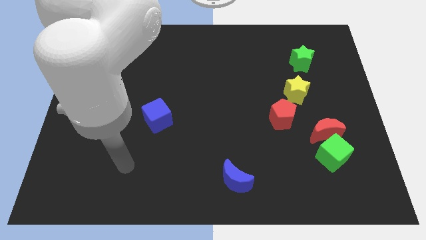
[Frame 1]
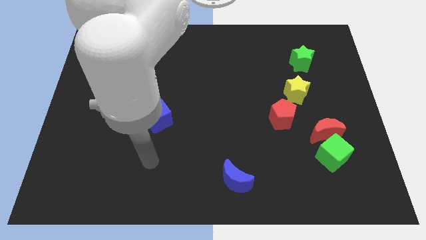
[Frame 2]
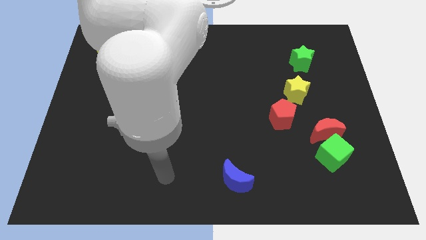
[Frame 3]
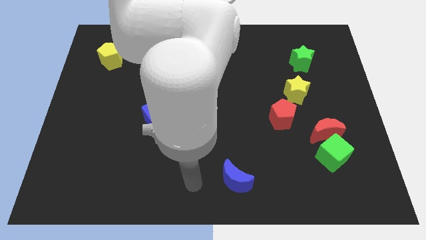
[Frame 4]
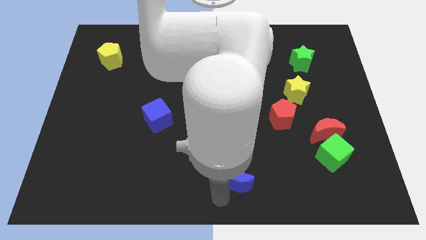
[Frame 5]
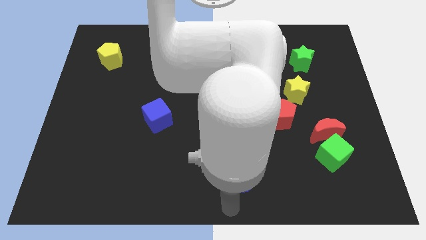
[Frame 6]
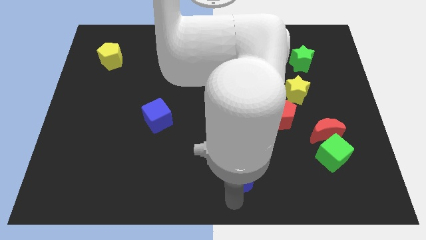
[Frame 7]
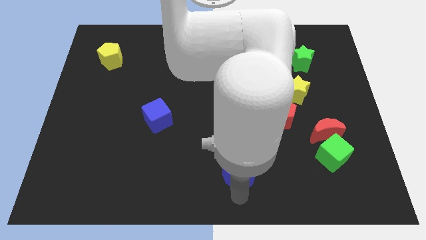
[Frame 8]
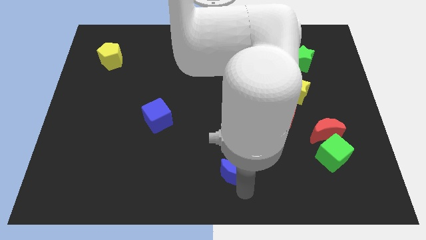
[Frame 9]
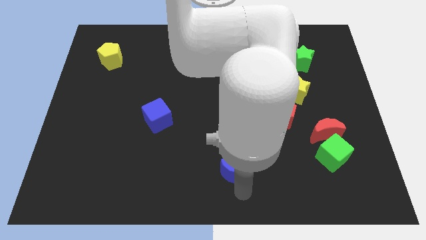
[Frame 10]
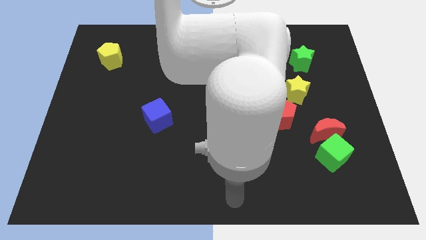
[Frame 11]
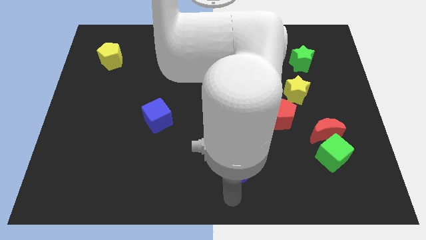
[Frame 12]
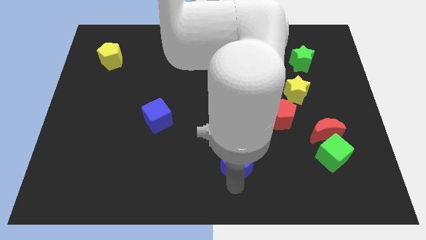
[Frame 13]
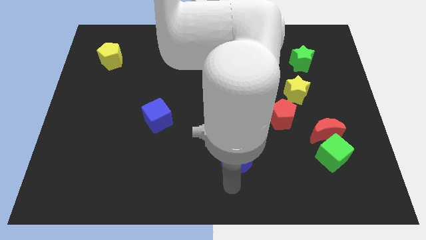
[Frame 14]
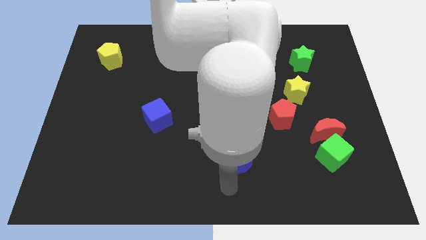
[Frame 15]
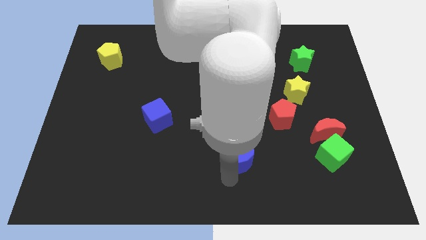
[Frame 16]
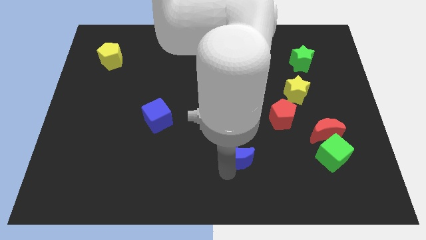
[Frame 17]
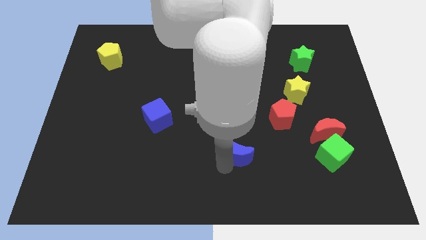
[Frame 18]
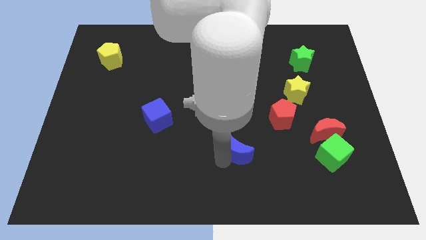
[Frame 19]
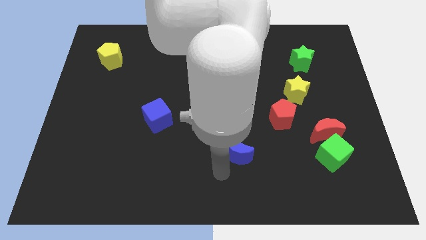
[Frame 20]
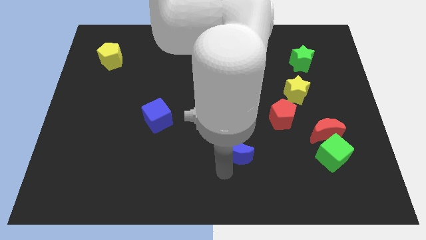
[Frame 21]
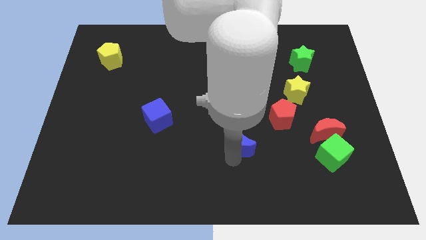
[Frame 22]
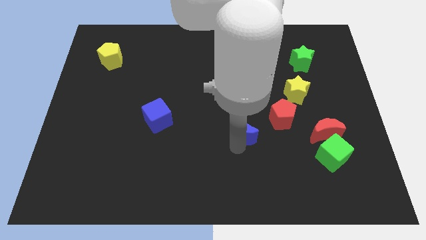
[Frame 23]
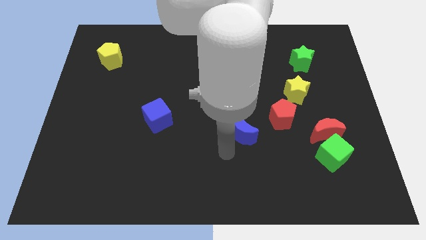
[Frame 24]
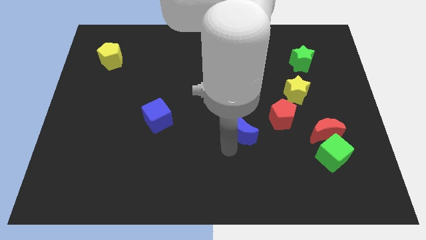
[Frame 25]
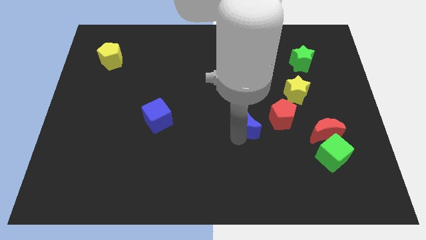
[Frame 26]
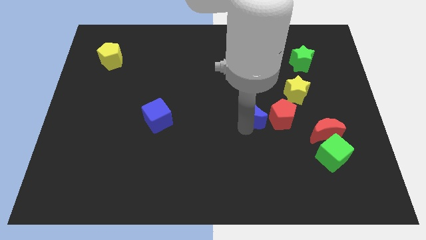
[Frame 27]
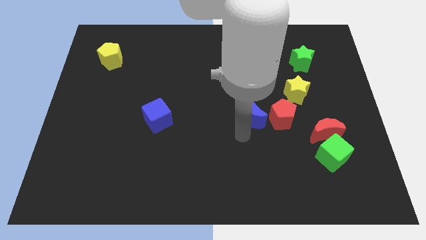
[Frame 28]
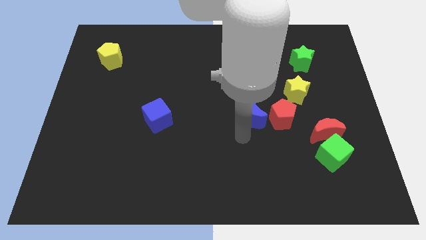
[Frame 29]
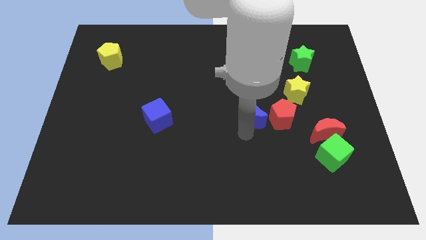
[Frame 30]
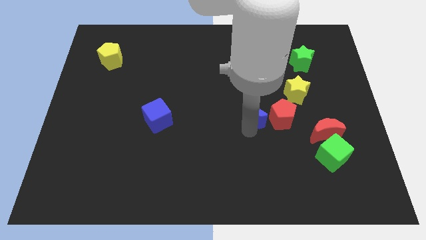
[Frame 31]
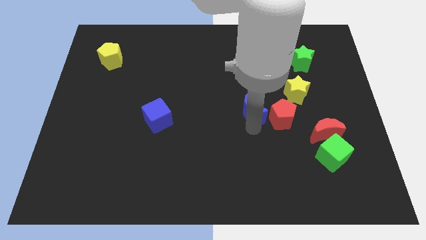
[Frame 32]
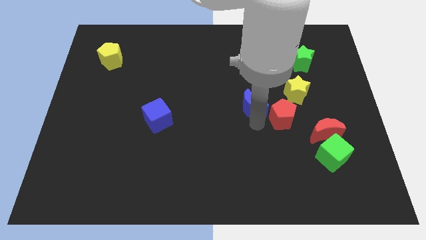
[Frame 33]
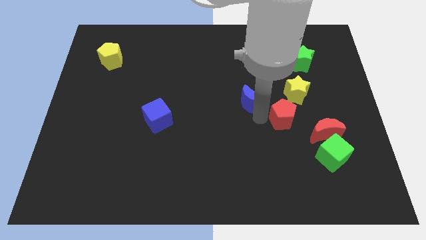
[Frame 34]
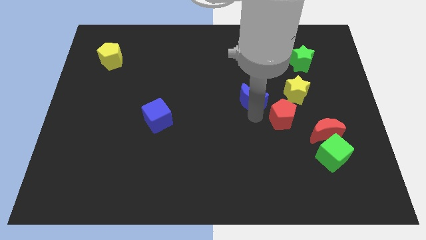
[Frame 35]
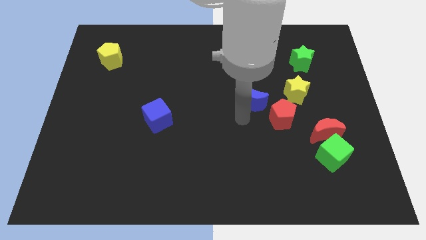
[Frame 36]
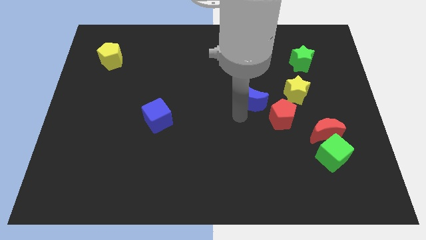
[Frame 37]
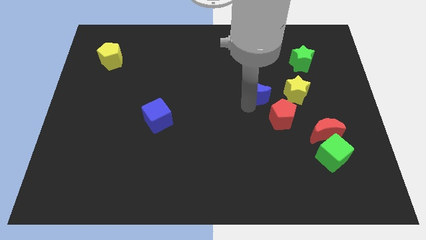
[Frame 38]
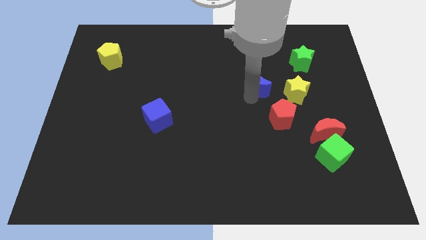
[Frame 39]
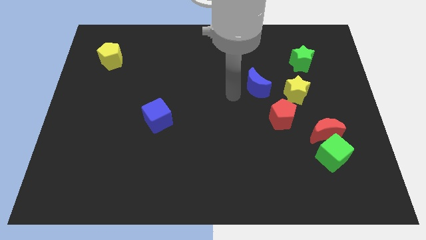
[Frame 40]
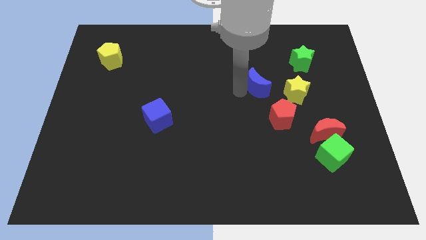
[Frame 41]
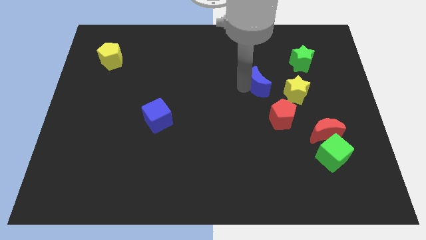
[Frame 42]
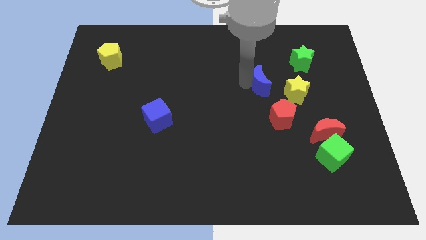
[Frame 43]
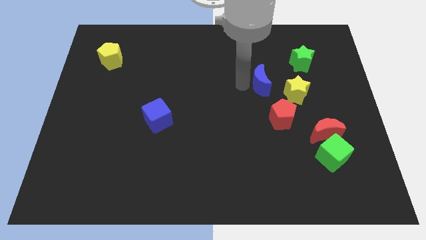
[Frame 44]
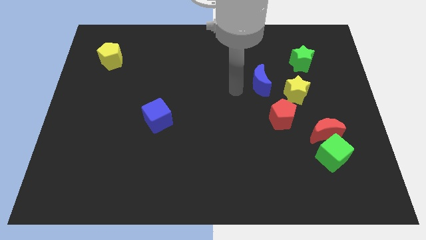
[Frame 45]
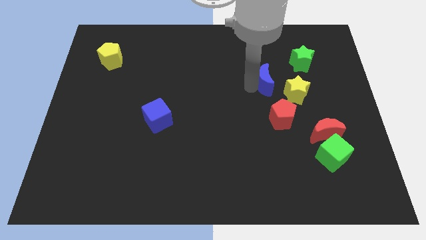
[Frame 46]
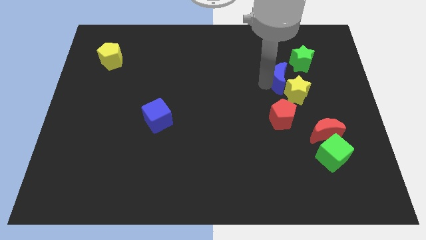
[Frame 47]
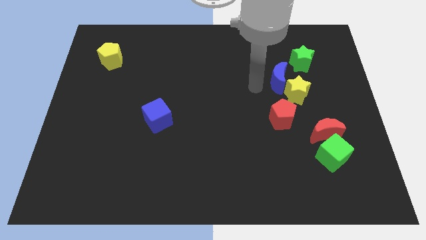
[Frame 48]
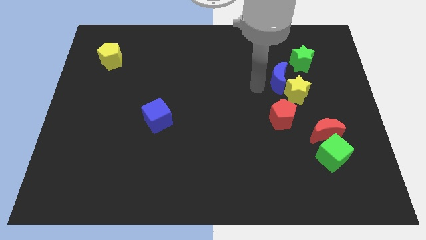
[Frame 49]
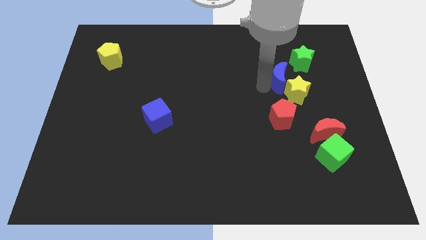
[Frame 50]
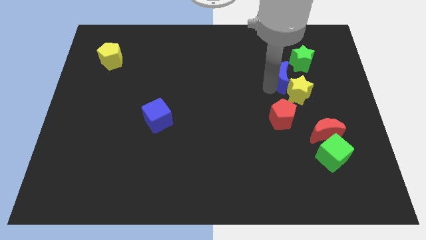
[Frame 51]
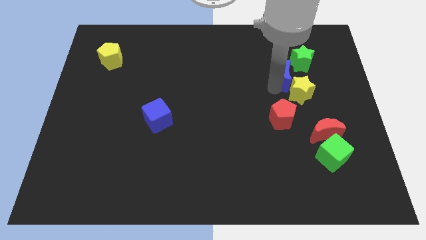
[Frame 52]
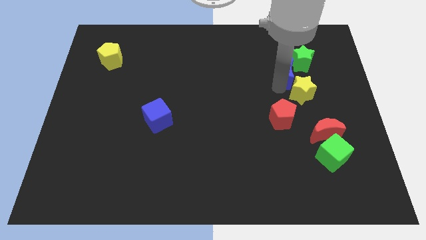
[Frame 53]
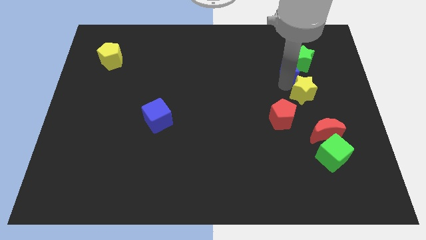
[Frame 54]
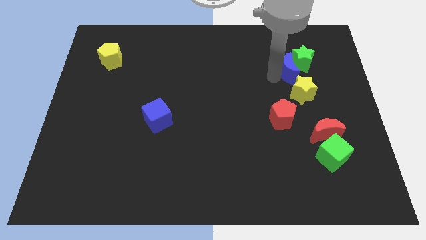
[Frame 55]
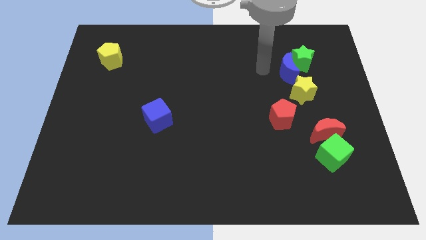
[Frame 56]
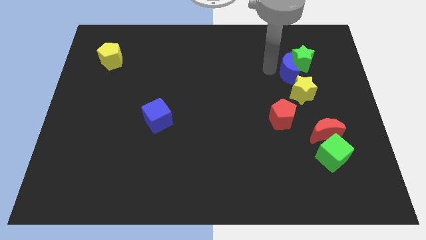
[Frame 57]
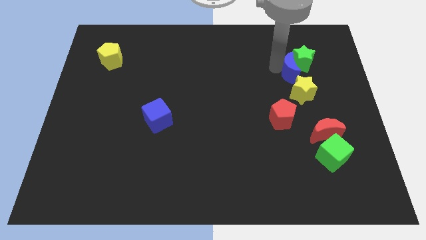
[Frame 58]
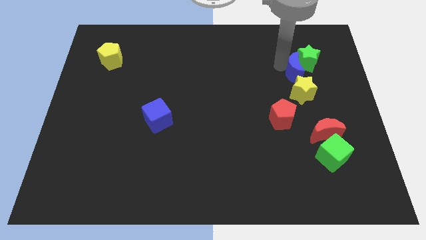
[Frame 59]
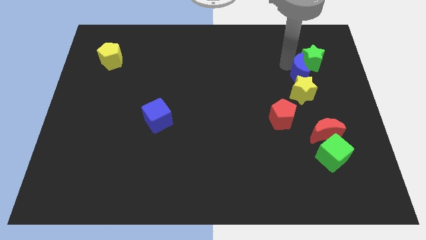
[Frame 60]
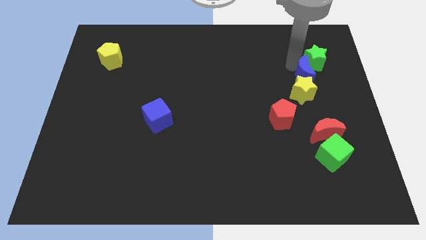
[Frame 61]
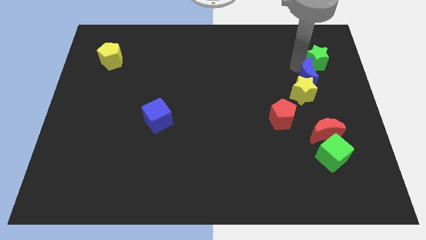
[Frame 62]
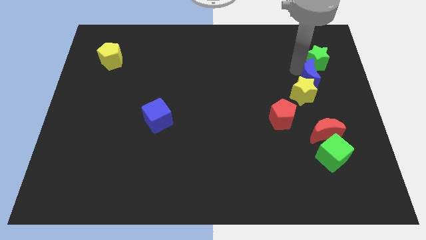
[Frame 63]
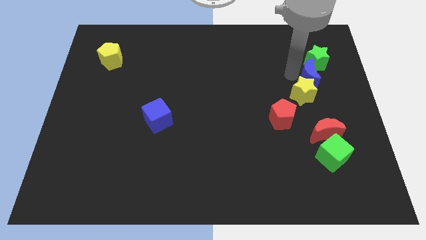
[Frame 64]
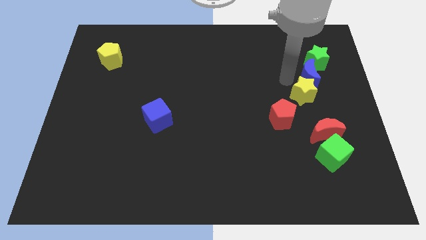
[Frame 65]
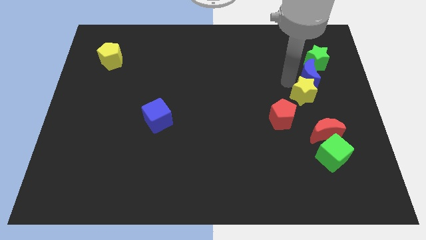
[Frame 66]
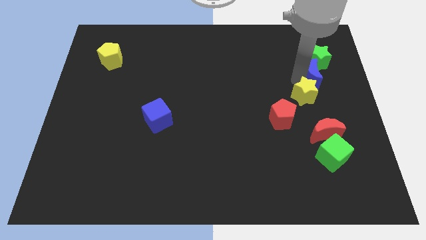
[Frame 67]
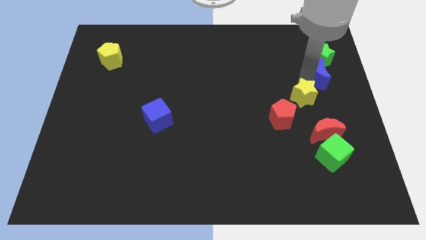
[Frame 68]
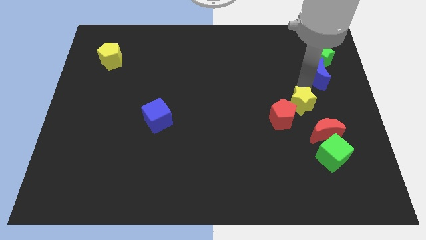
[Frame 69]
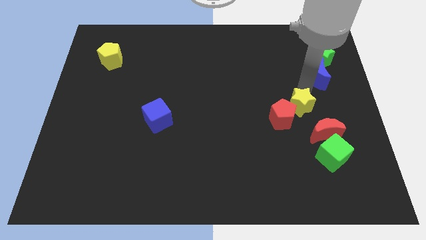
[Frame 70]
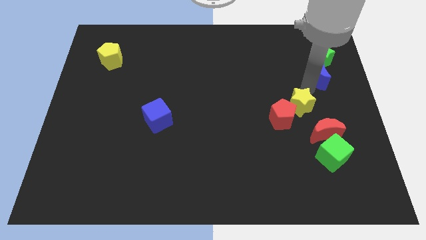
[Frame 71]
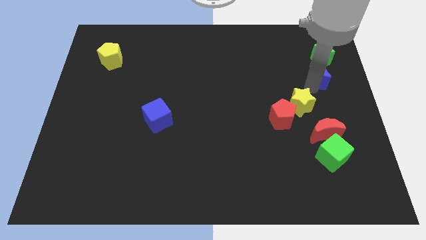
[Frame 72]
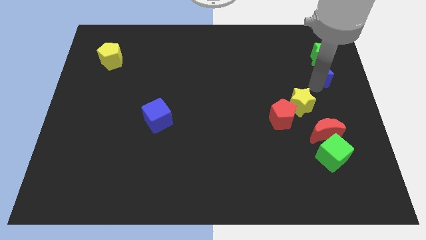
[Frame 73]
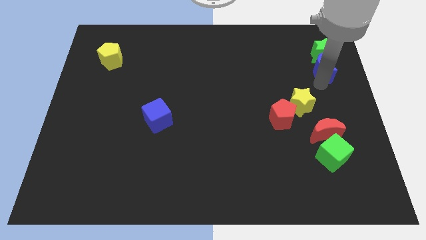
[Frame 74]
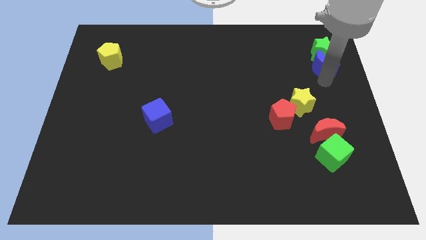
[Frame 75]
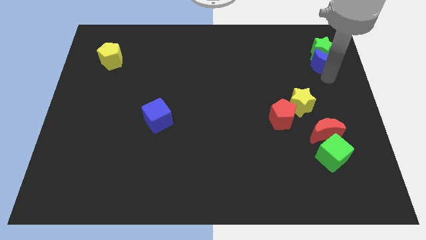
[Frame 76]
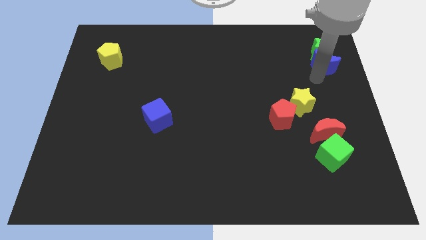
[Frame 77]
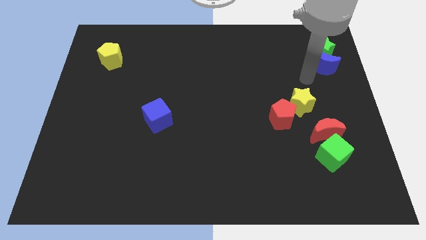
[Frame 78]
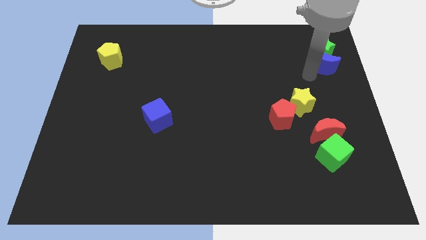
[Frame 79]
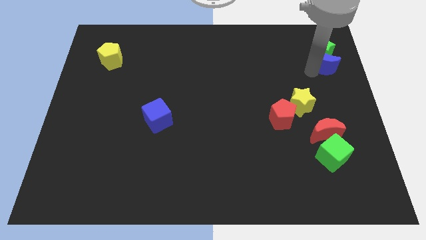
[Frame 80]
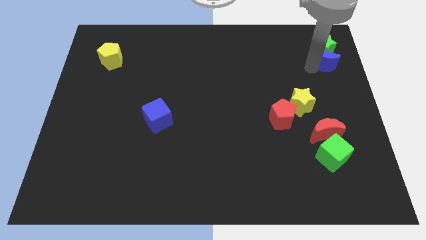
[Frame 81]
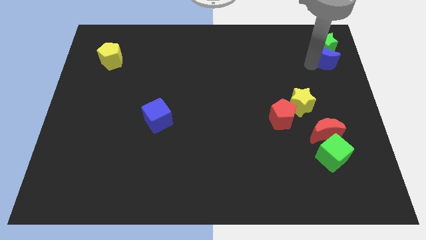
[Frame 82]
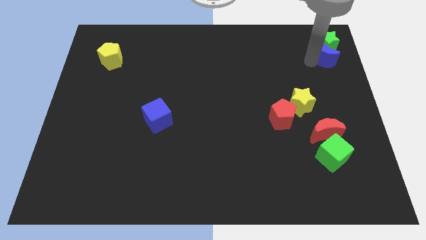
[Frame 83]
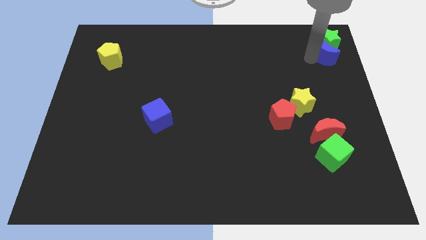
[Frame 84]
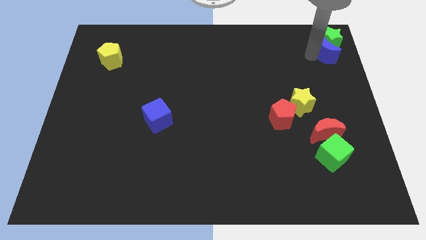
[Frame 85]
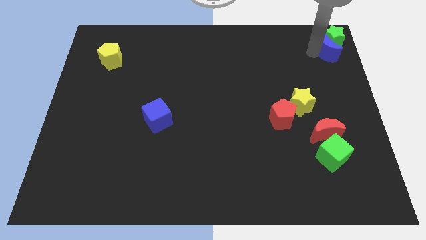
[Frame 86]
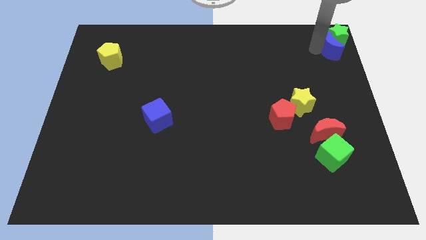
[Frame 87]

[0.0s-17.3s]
push the blue moon to the top right of the board
